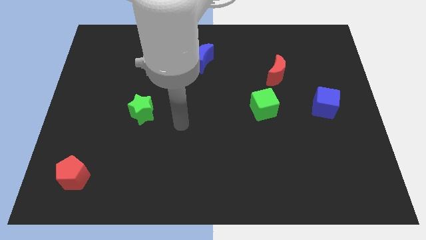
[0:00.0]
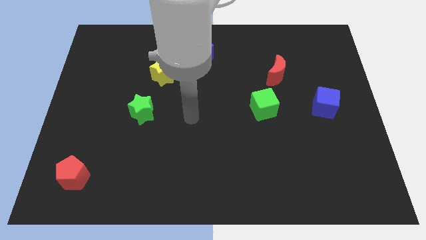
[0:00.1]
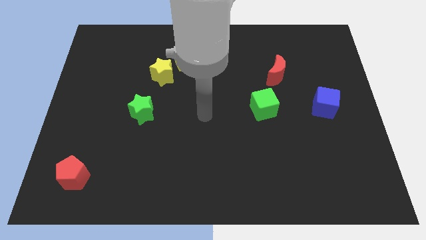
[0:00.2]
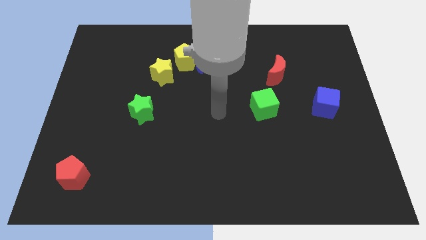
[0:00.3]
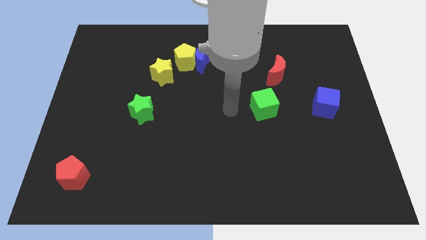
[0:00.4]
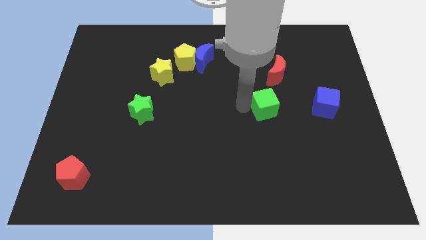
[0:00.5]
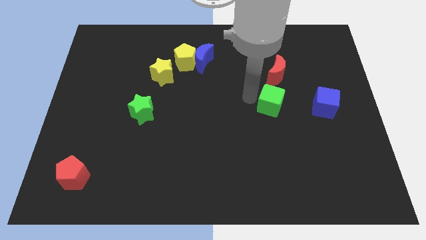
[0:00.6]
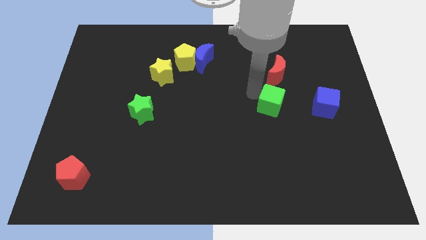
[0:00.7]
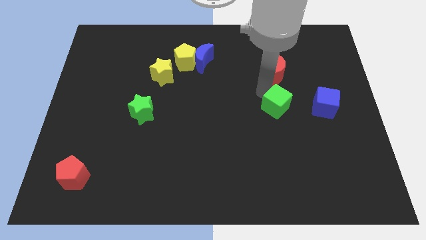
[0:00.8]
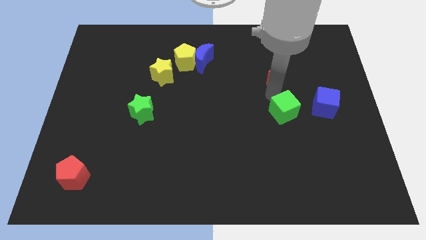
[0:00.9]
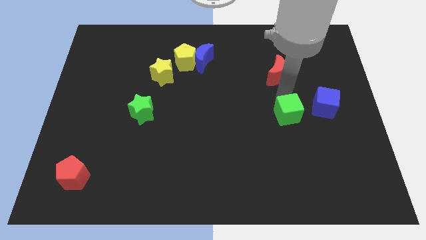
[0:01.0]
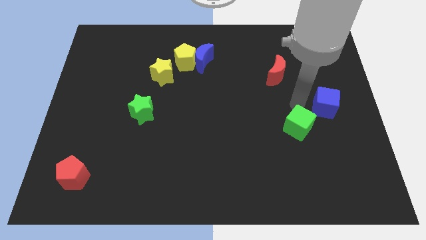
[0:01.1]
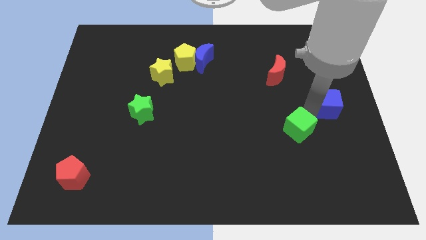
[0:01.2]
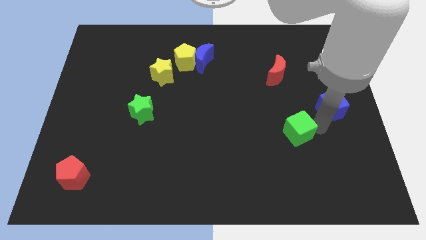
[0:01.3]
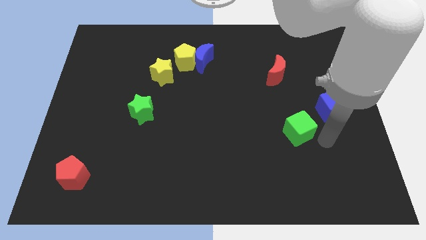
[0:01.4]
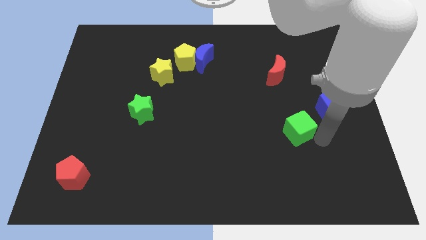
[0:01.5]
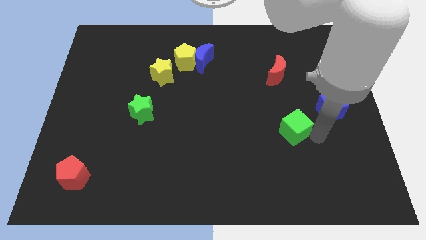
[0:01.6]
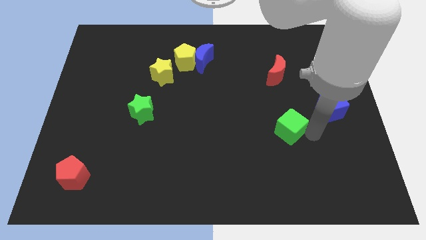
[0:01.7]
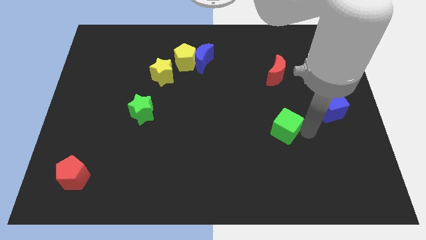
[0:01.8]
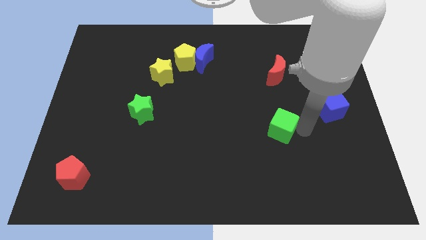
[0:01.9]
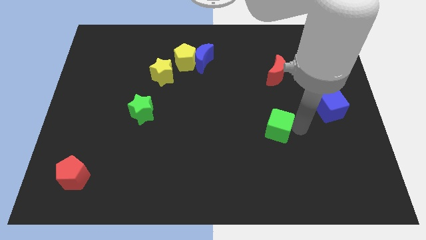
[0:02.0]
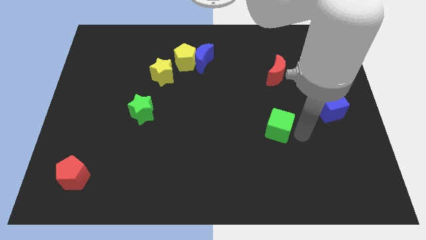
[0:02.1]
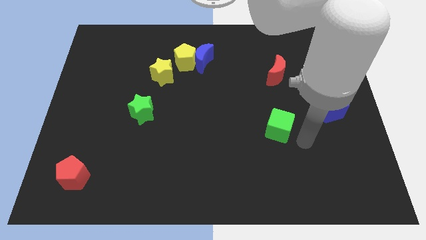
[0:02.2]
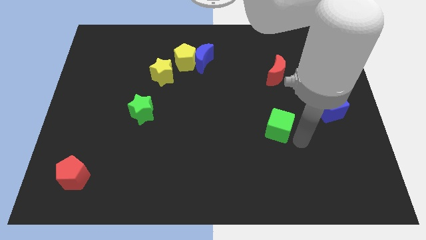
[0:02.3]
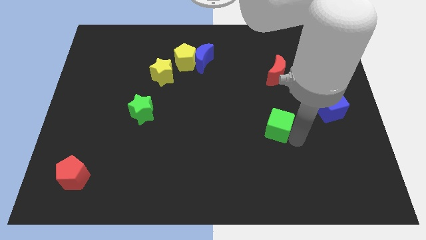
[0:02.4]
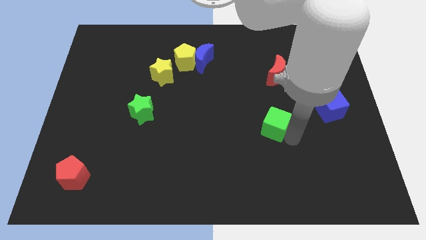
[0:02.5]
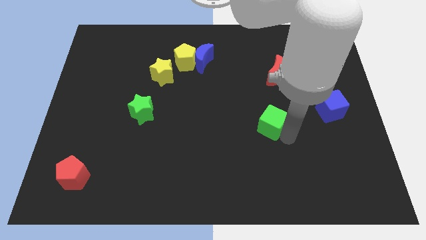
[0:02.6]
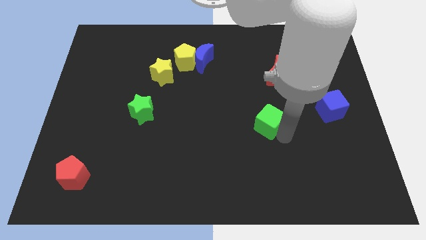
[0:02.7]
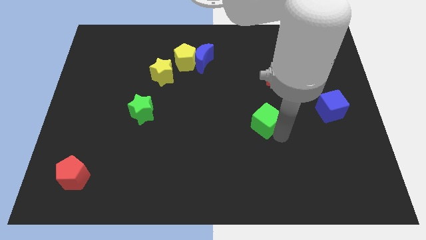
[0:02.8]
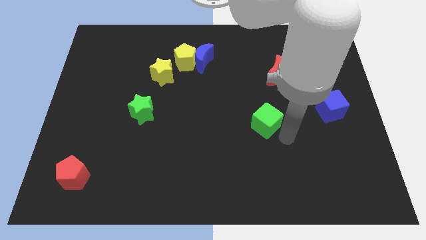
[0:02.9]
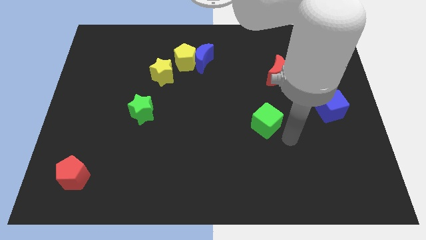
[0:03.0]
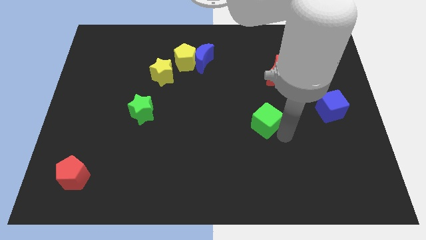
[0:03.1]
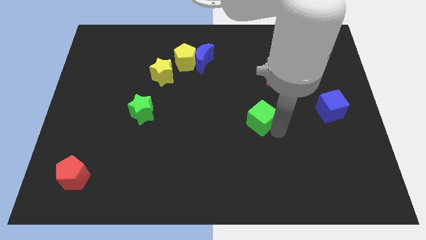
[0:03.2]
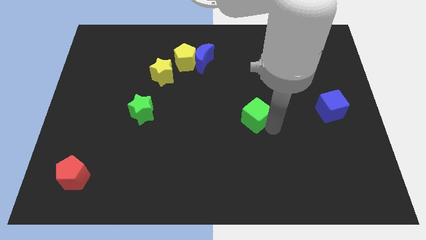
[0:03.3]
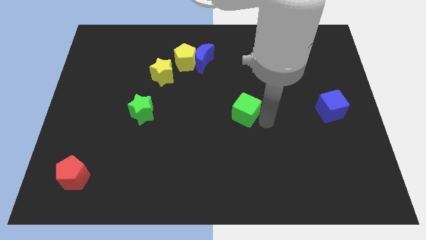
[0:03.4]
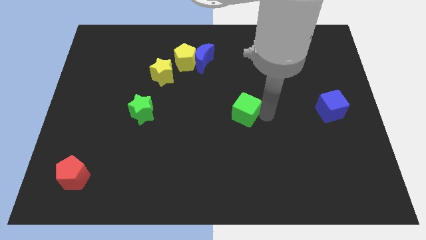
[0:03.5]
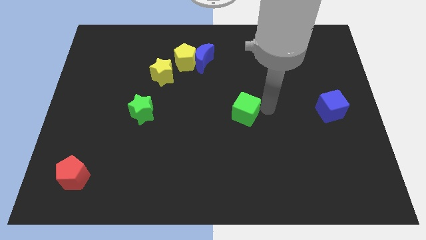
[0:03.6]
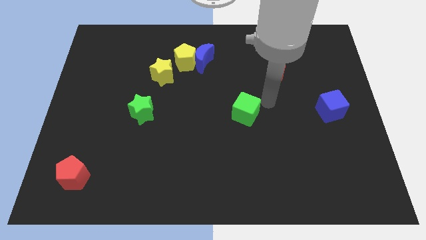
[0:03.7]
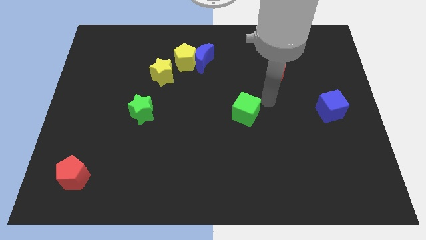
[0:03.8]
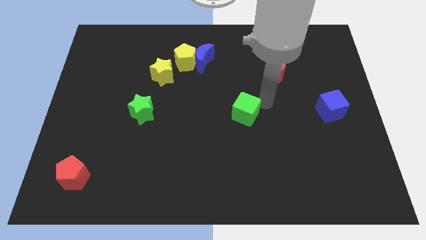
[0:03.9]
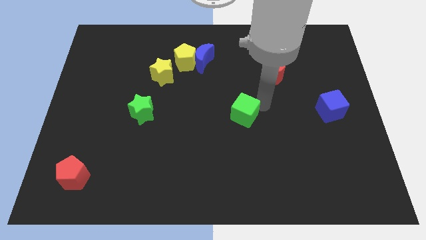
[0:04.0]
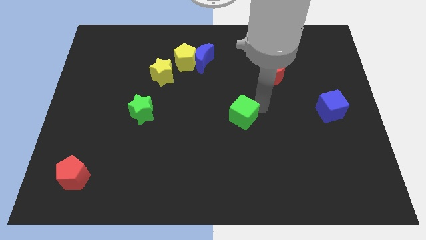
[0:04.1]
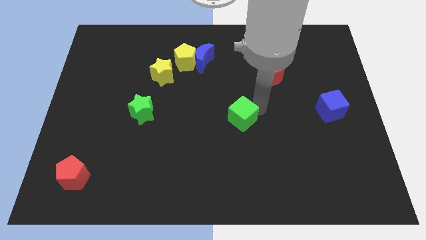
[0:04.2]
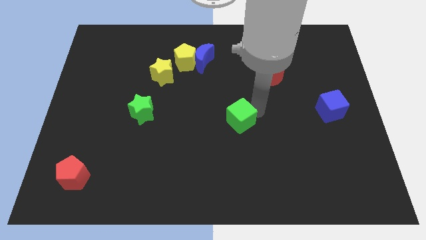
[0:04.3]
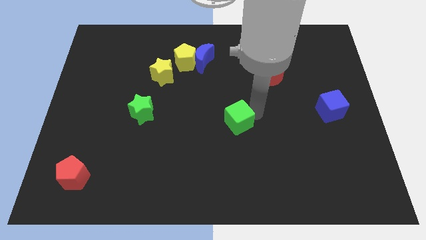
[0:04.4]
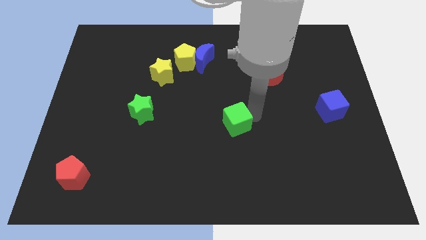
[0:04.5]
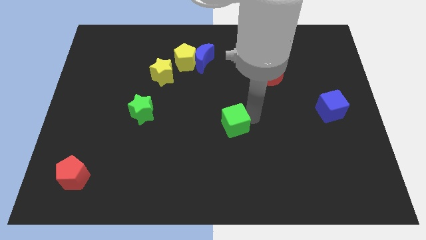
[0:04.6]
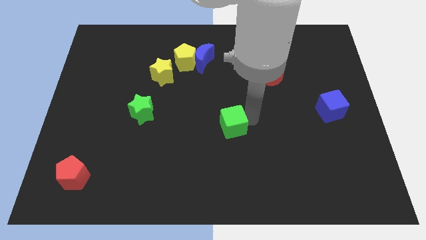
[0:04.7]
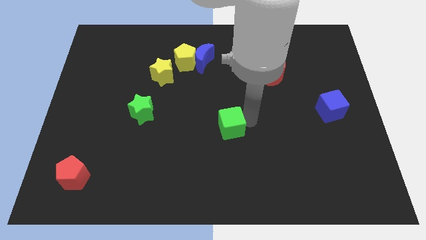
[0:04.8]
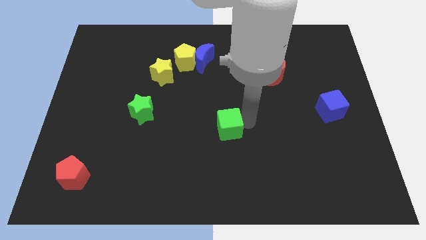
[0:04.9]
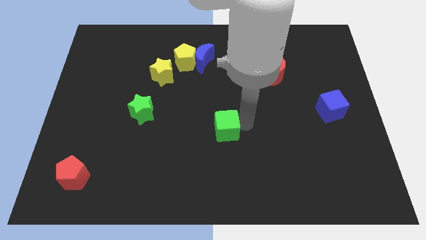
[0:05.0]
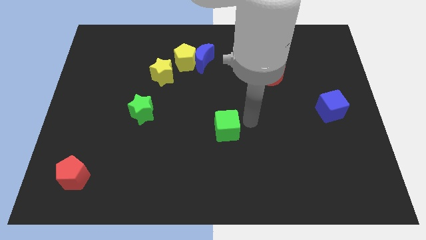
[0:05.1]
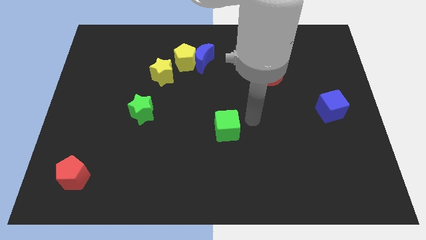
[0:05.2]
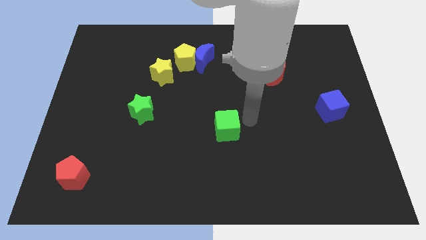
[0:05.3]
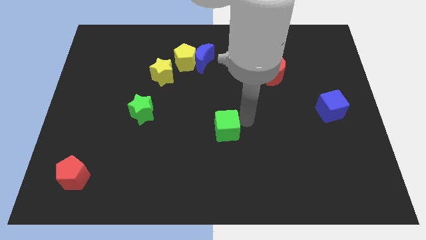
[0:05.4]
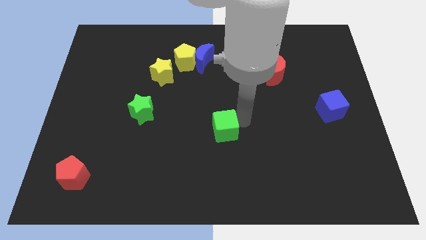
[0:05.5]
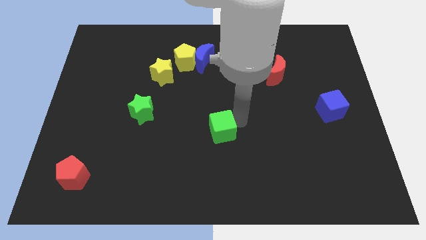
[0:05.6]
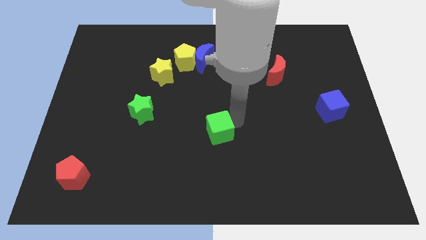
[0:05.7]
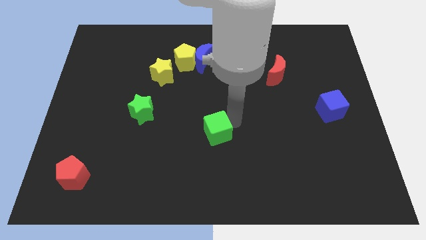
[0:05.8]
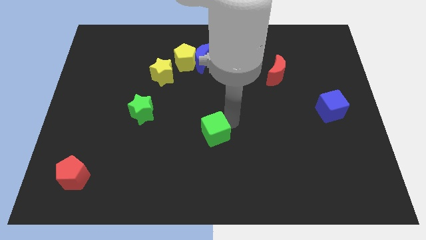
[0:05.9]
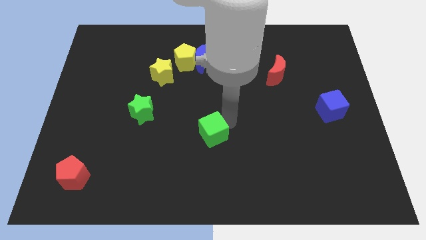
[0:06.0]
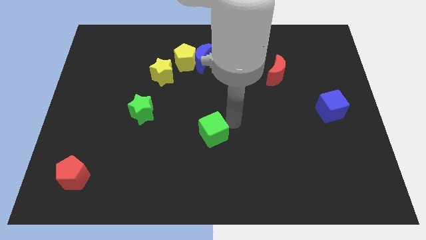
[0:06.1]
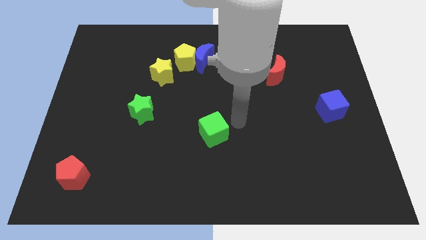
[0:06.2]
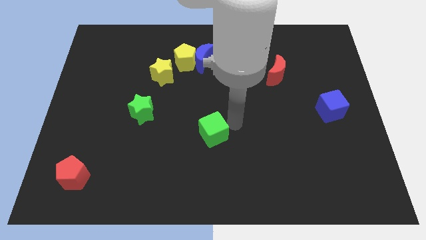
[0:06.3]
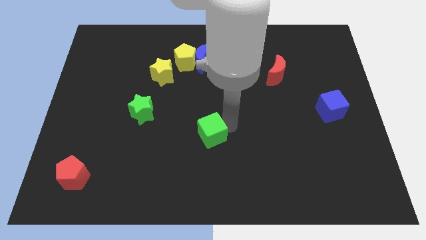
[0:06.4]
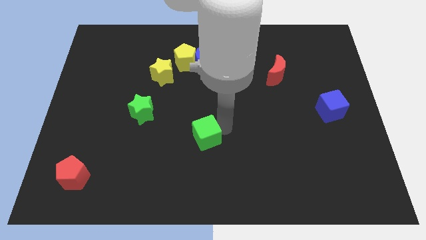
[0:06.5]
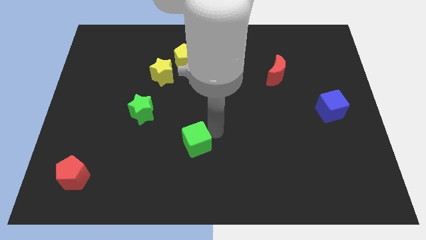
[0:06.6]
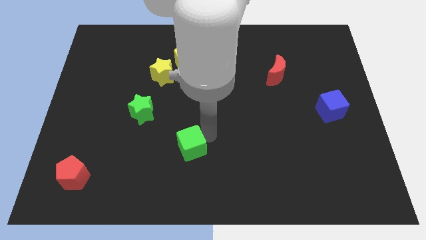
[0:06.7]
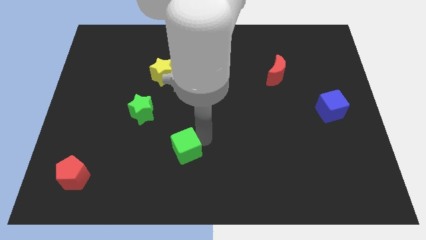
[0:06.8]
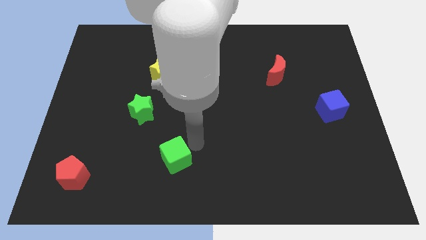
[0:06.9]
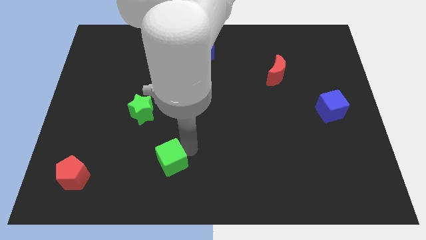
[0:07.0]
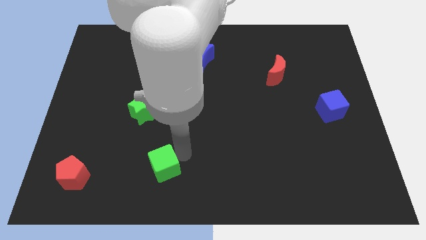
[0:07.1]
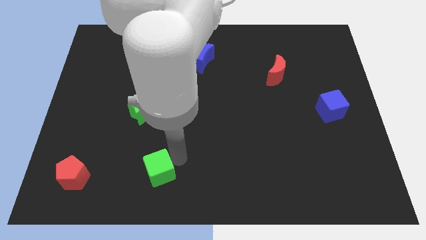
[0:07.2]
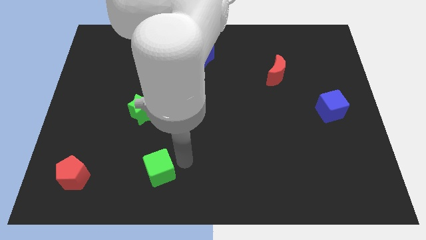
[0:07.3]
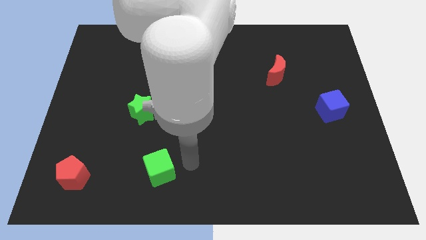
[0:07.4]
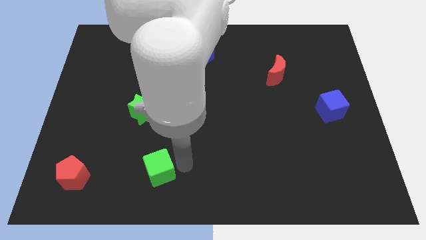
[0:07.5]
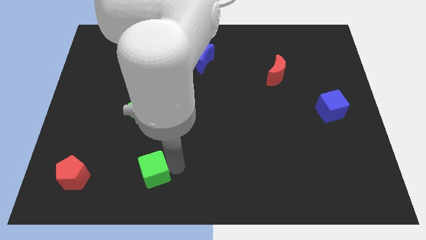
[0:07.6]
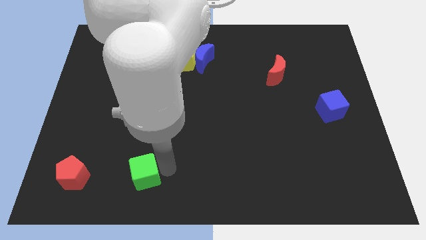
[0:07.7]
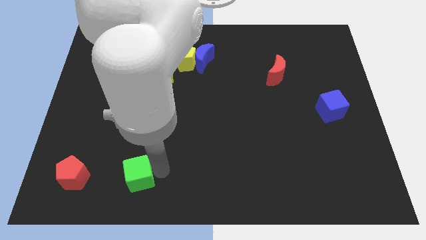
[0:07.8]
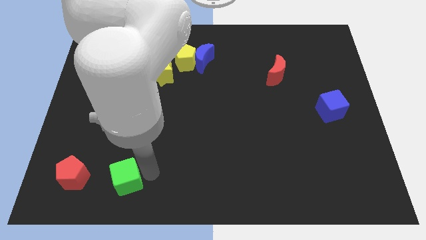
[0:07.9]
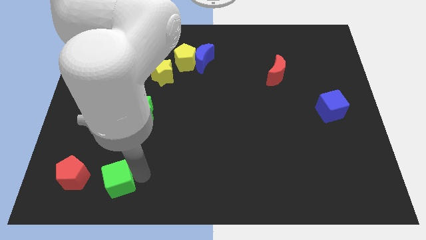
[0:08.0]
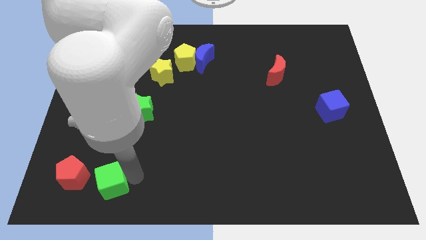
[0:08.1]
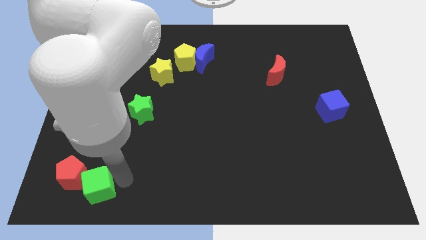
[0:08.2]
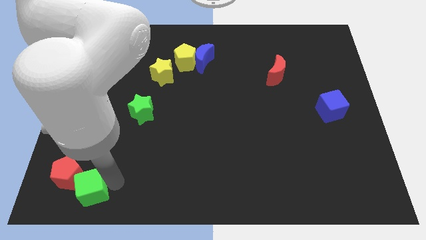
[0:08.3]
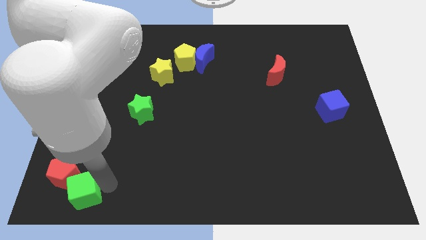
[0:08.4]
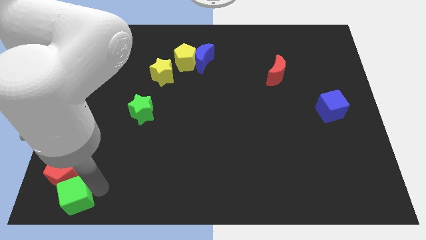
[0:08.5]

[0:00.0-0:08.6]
move the green cube to the bottom left of the board
